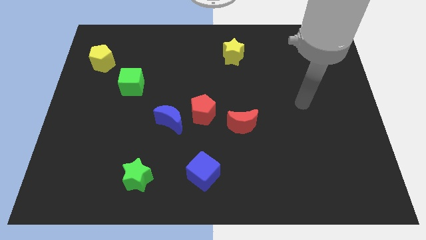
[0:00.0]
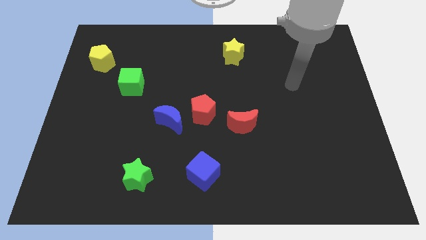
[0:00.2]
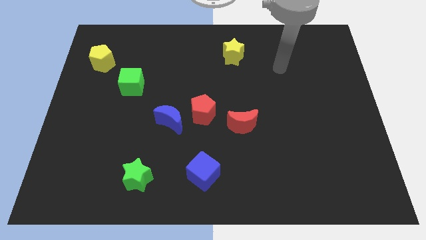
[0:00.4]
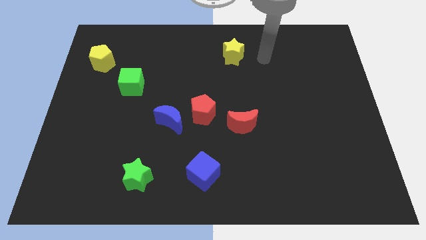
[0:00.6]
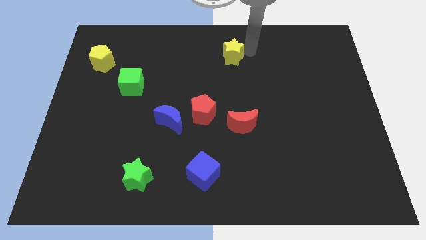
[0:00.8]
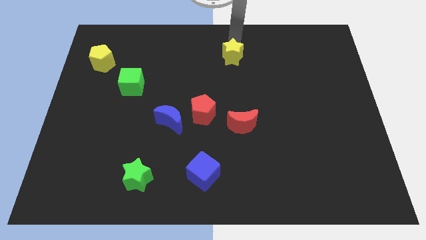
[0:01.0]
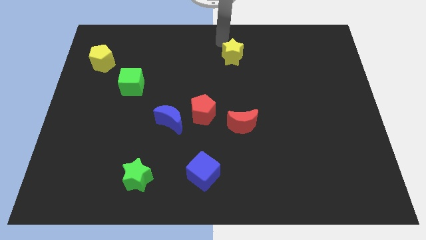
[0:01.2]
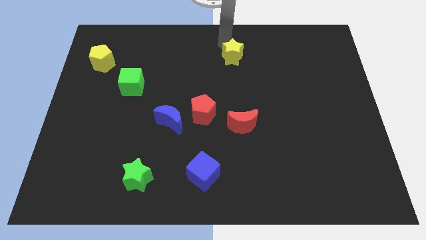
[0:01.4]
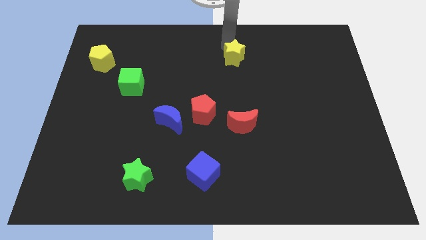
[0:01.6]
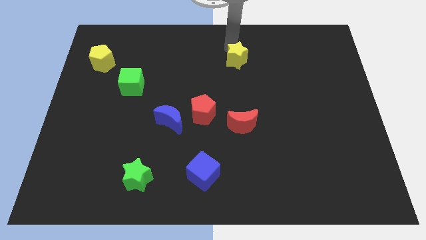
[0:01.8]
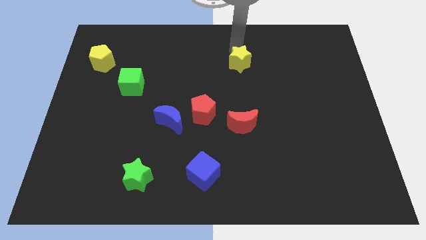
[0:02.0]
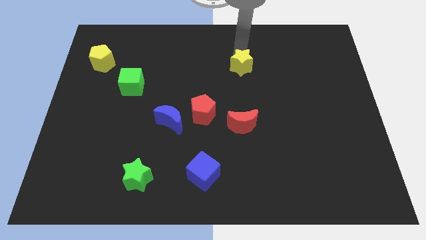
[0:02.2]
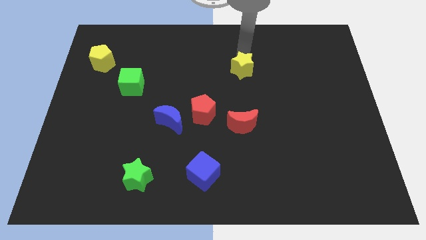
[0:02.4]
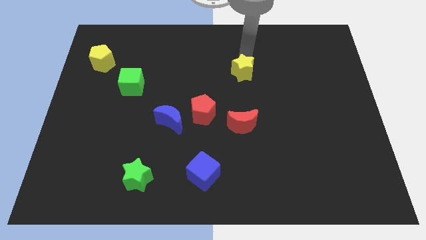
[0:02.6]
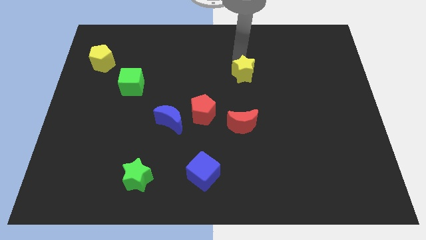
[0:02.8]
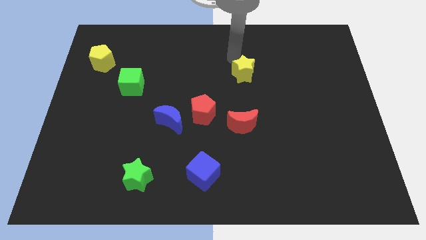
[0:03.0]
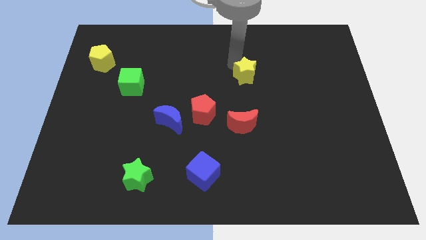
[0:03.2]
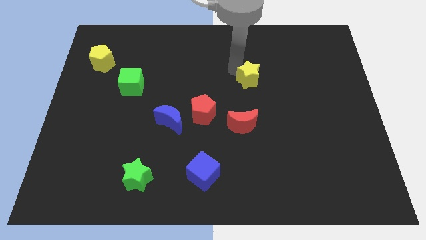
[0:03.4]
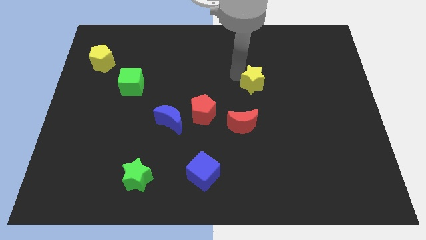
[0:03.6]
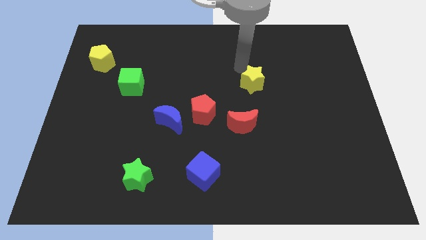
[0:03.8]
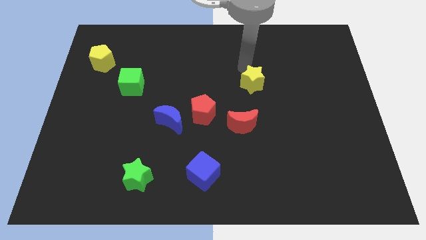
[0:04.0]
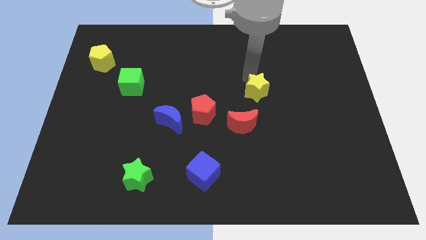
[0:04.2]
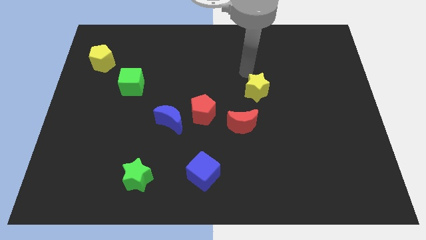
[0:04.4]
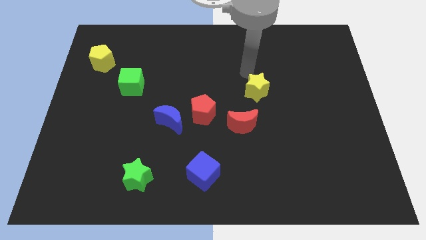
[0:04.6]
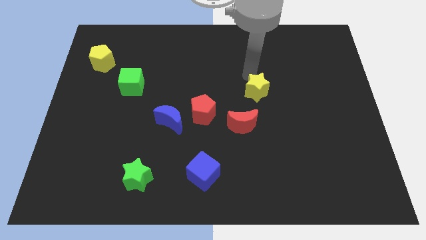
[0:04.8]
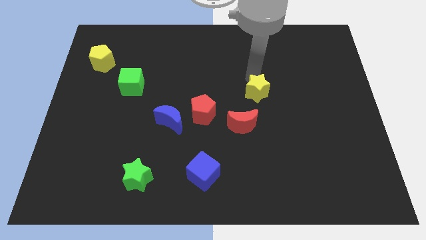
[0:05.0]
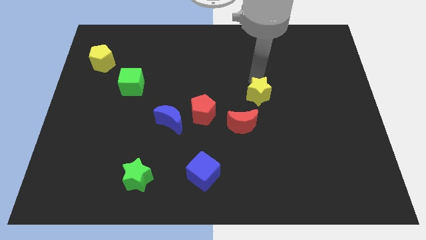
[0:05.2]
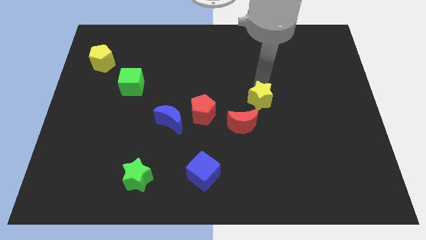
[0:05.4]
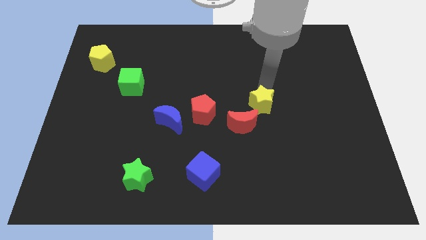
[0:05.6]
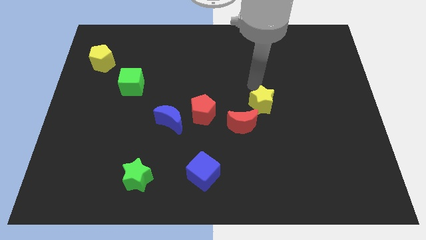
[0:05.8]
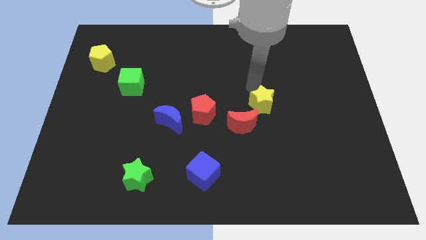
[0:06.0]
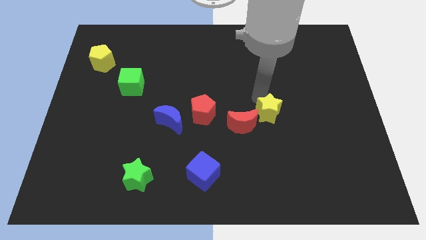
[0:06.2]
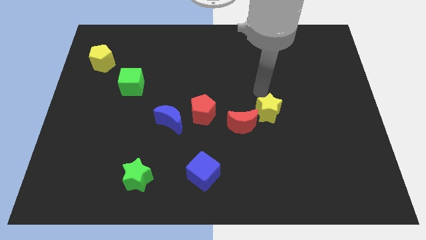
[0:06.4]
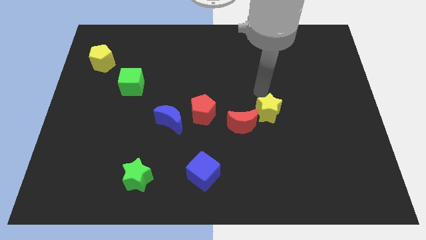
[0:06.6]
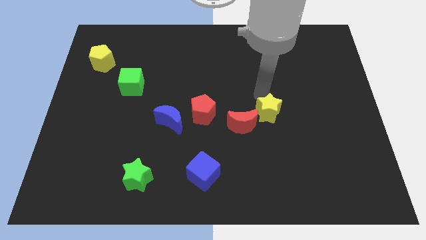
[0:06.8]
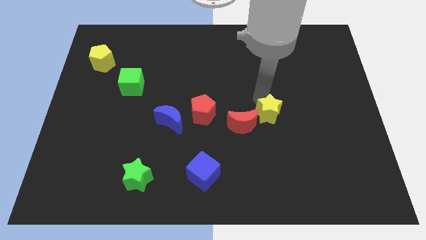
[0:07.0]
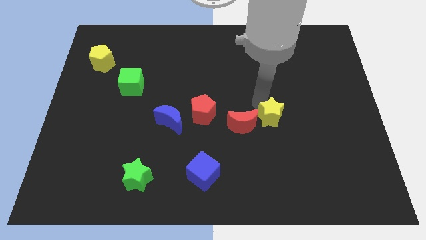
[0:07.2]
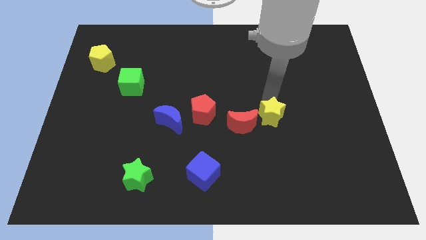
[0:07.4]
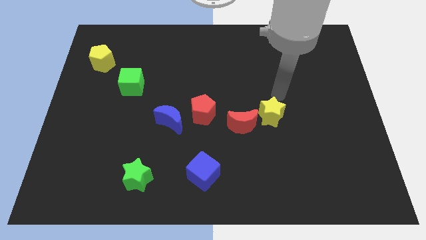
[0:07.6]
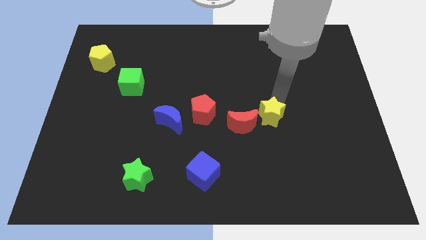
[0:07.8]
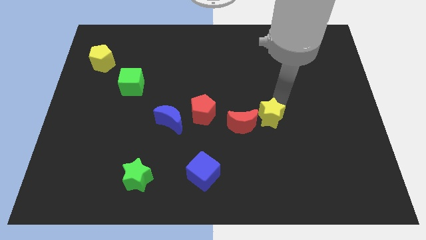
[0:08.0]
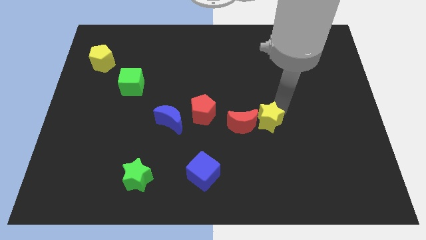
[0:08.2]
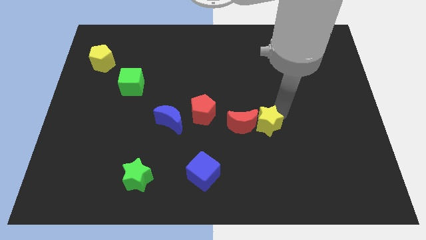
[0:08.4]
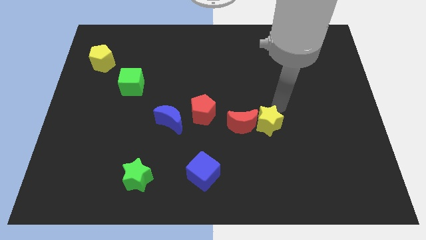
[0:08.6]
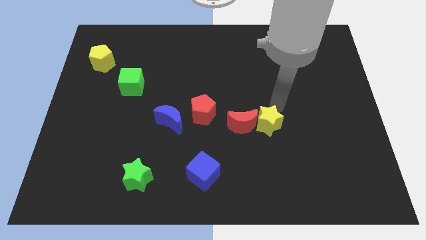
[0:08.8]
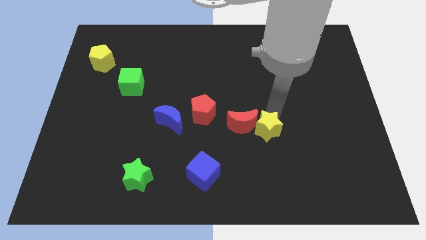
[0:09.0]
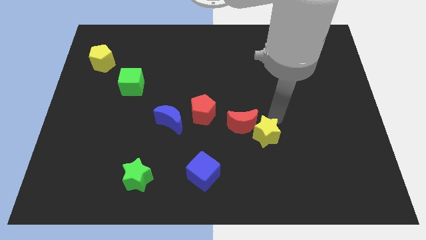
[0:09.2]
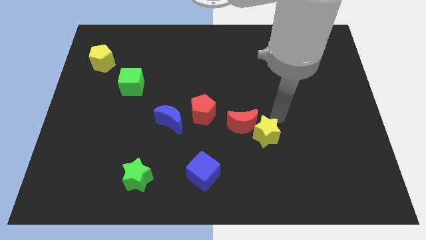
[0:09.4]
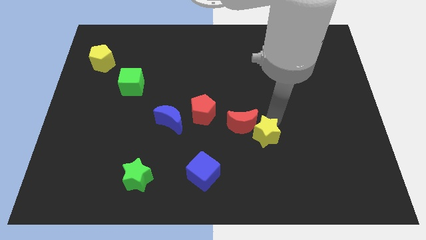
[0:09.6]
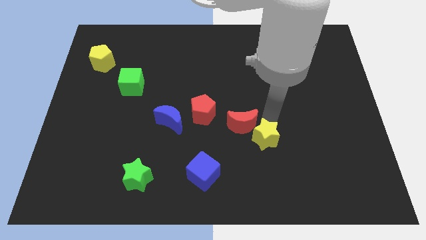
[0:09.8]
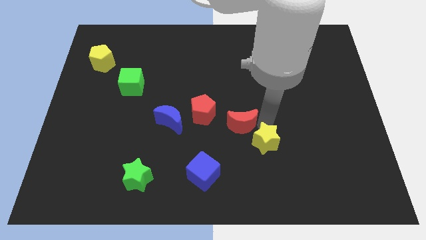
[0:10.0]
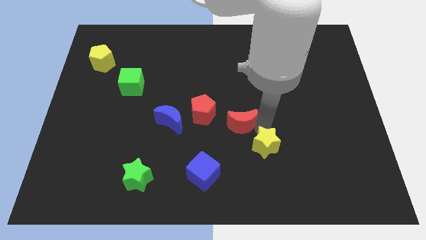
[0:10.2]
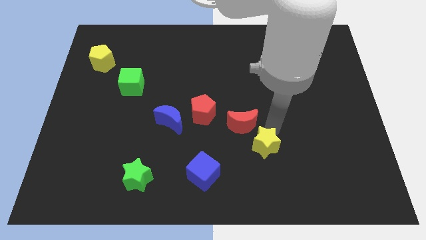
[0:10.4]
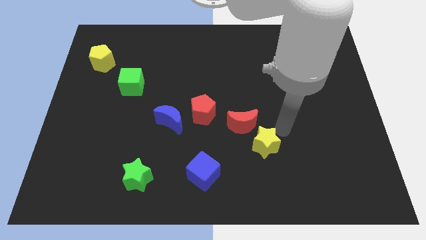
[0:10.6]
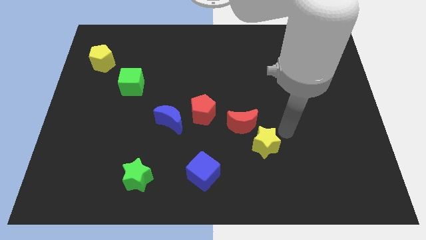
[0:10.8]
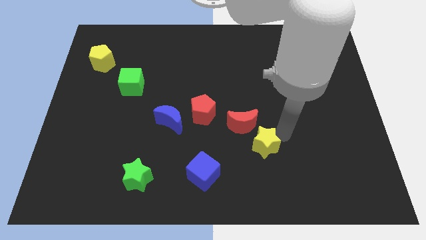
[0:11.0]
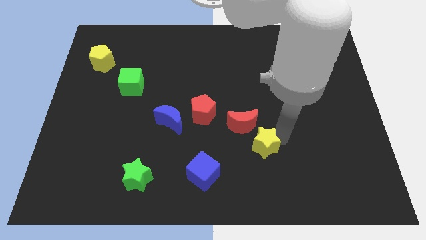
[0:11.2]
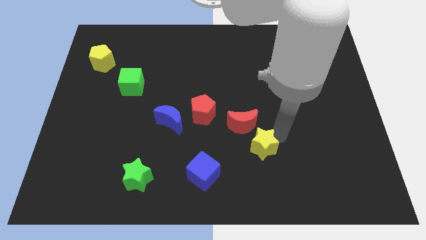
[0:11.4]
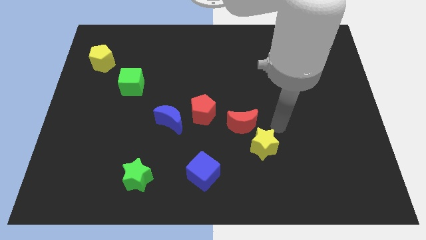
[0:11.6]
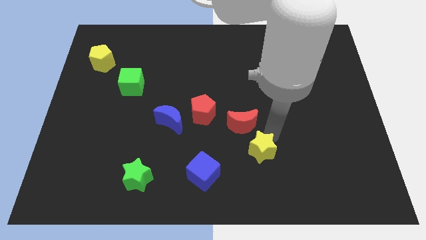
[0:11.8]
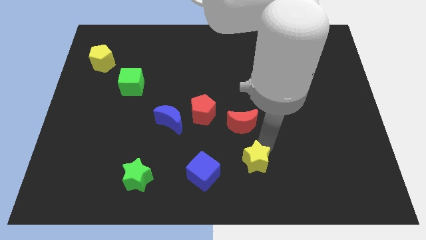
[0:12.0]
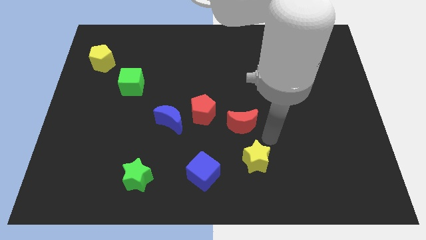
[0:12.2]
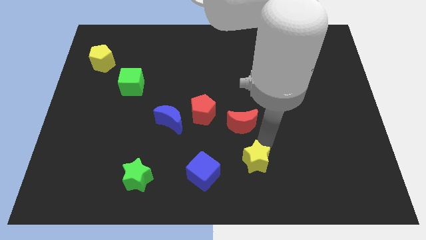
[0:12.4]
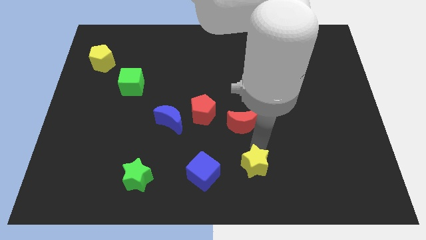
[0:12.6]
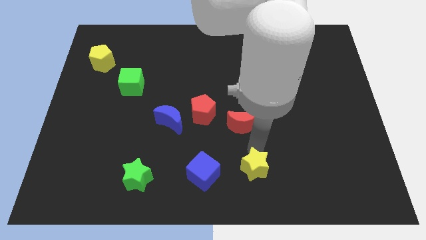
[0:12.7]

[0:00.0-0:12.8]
put the yellow star to the bottom side
